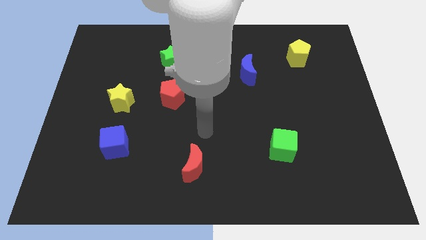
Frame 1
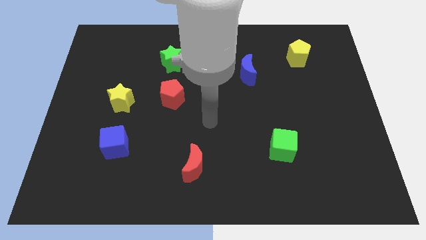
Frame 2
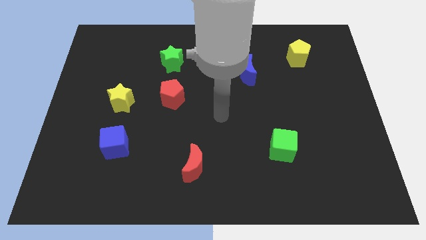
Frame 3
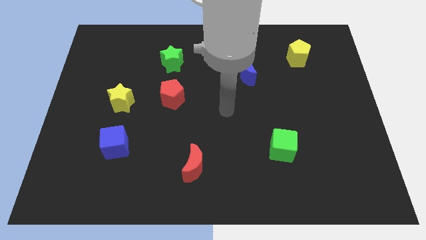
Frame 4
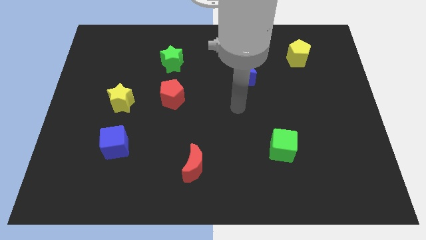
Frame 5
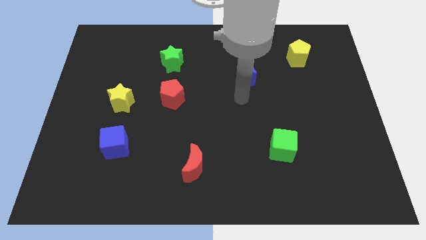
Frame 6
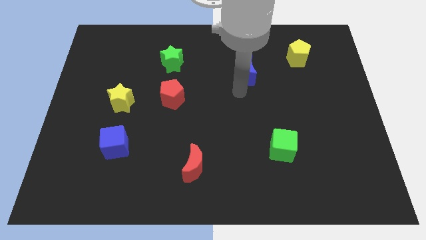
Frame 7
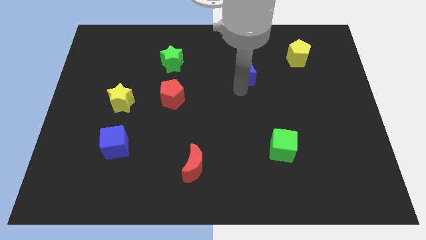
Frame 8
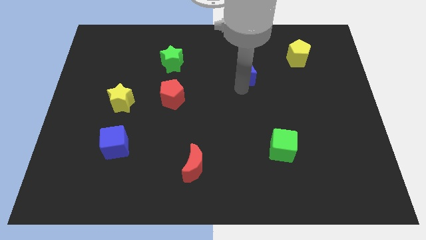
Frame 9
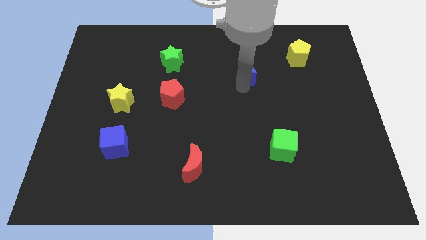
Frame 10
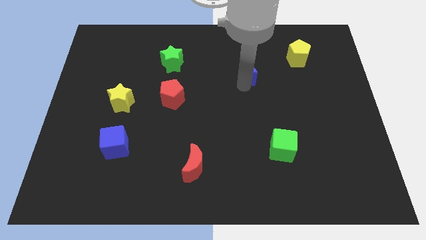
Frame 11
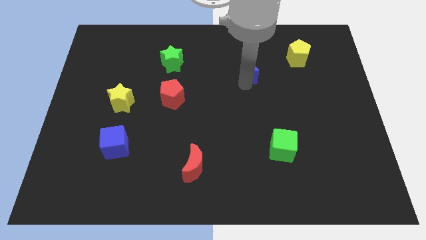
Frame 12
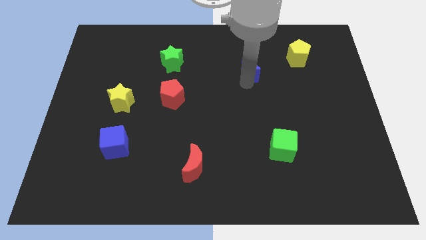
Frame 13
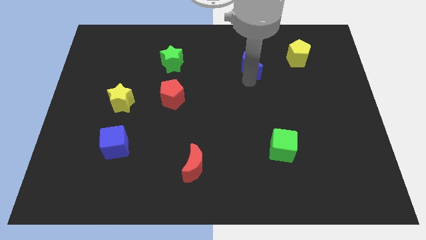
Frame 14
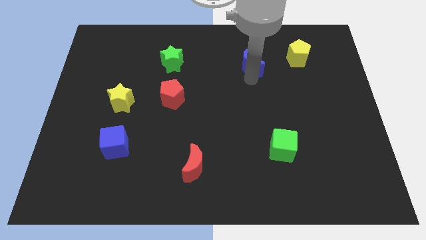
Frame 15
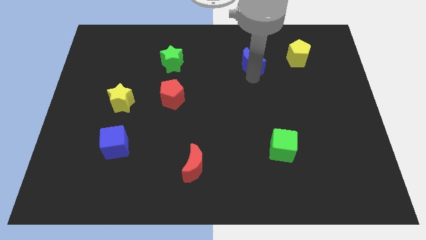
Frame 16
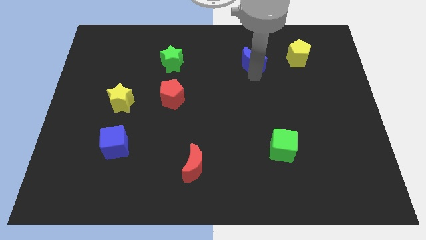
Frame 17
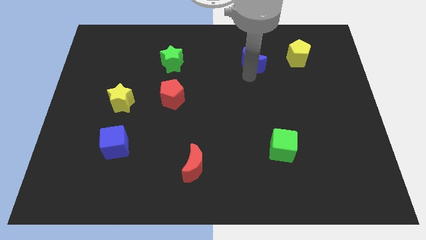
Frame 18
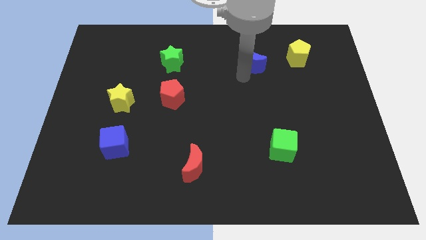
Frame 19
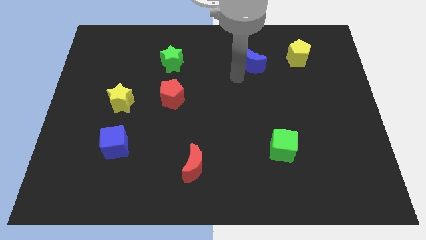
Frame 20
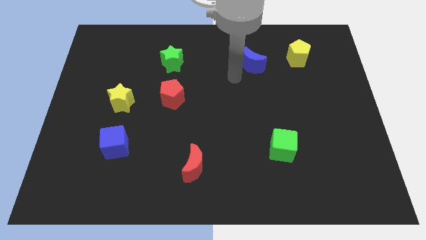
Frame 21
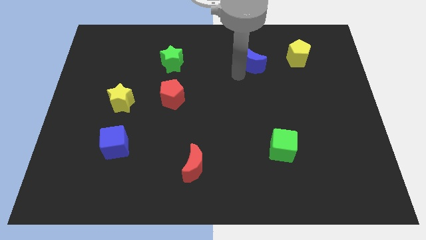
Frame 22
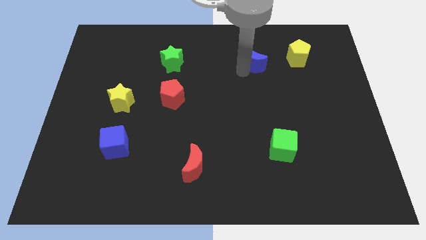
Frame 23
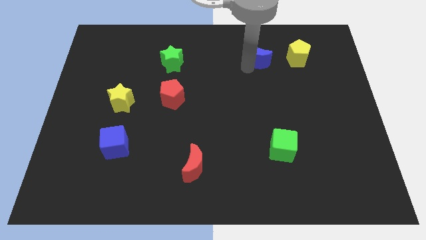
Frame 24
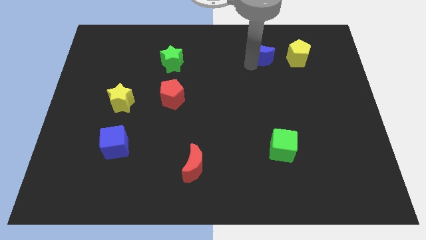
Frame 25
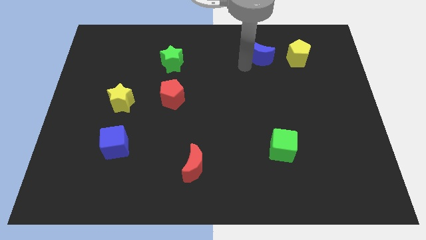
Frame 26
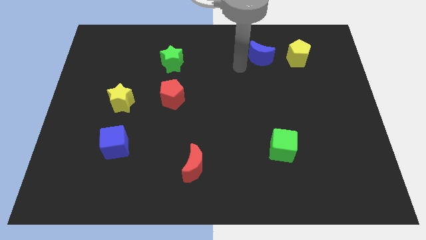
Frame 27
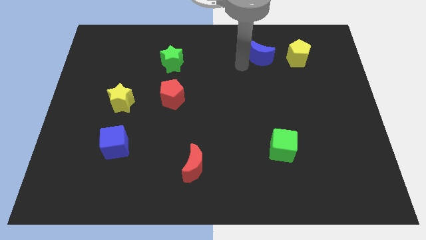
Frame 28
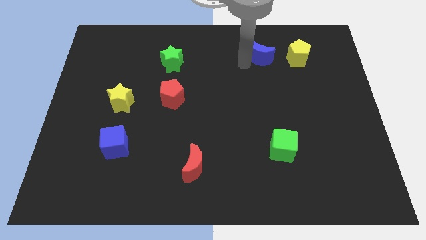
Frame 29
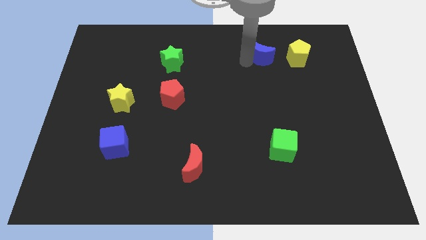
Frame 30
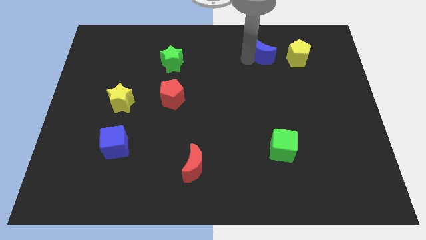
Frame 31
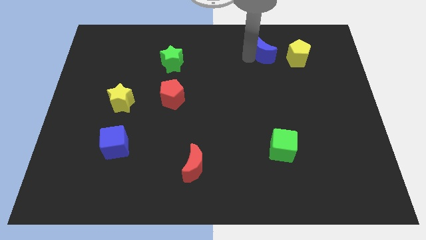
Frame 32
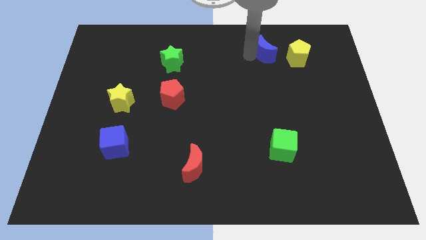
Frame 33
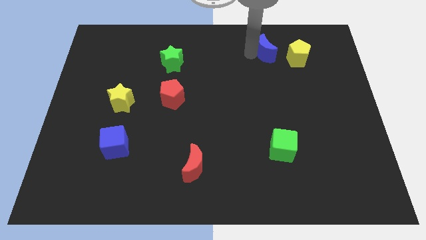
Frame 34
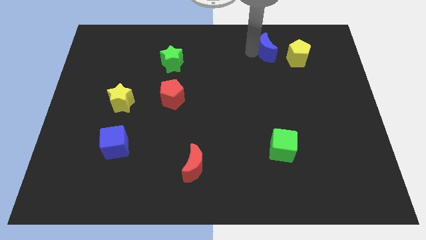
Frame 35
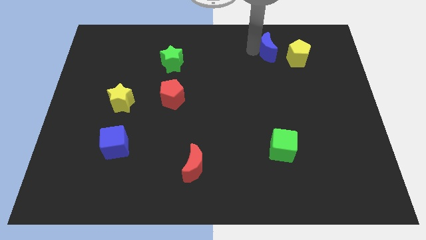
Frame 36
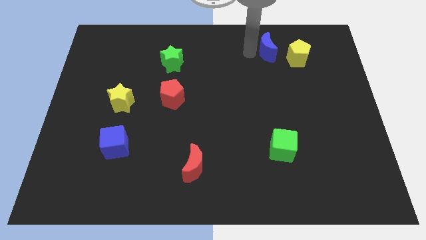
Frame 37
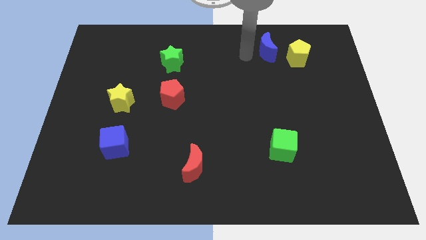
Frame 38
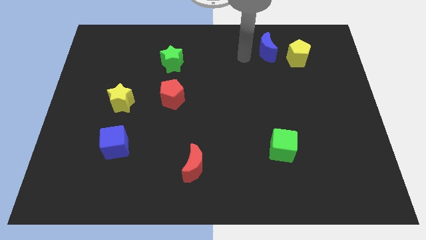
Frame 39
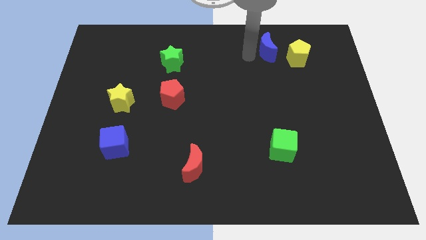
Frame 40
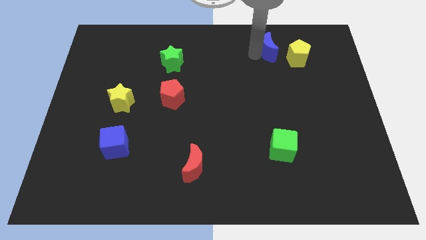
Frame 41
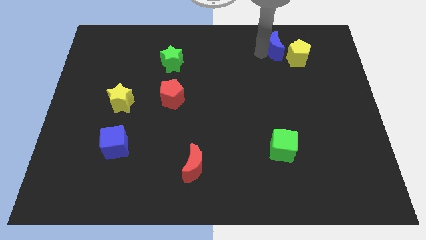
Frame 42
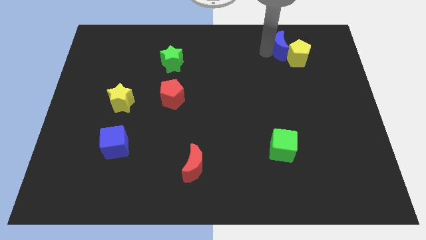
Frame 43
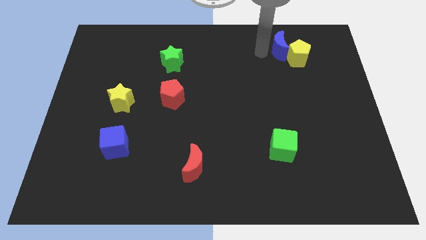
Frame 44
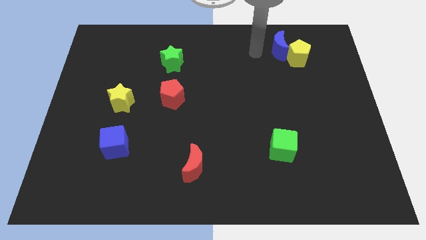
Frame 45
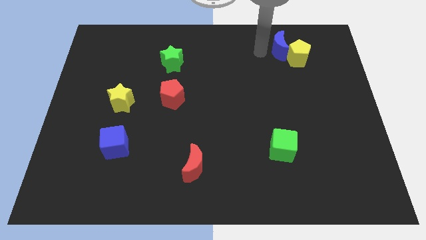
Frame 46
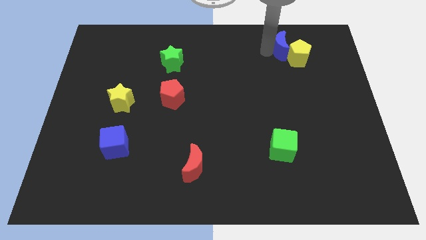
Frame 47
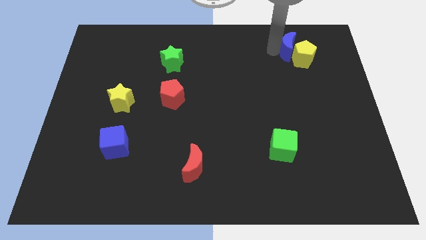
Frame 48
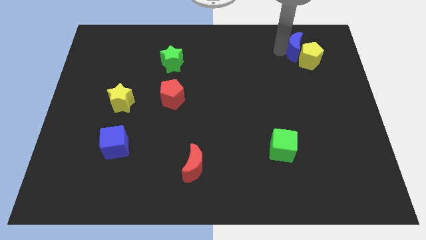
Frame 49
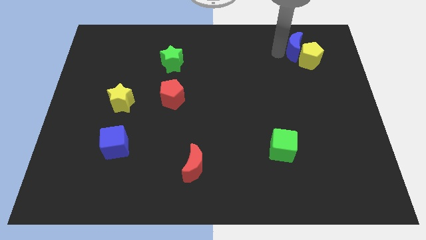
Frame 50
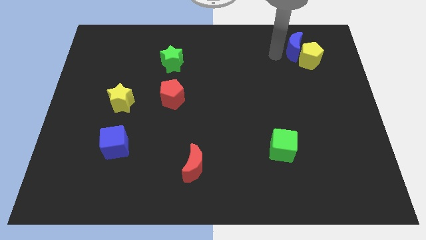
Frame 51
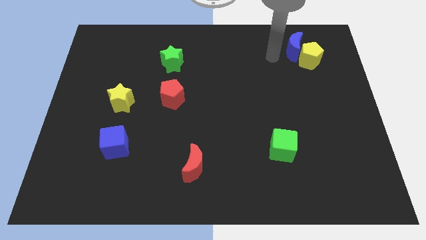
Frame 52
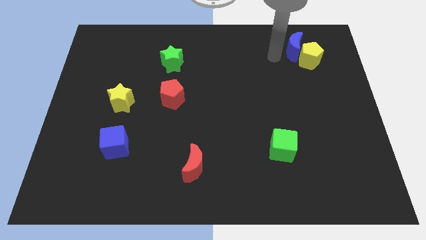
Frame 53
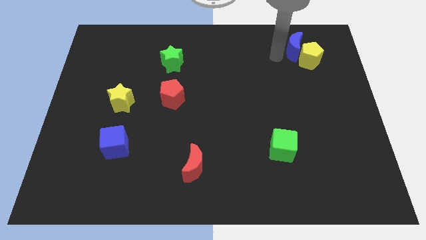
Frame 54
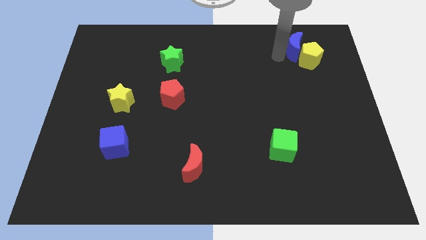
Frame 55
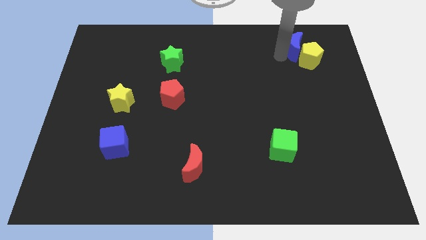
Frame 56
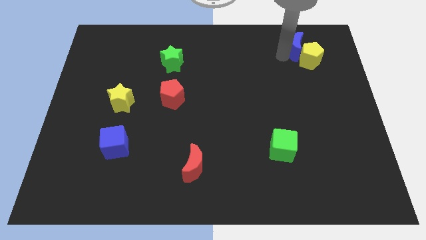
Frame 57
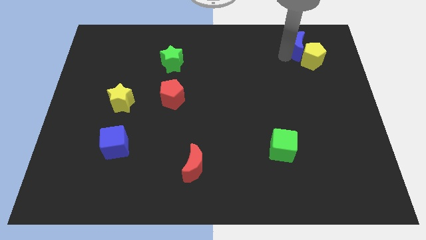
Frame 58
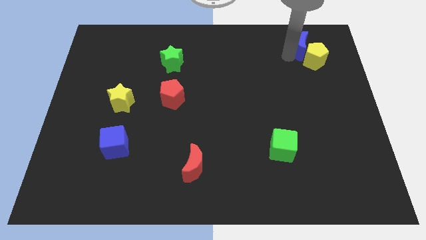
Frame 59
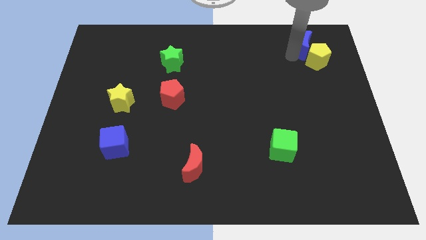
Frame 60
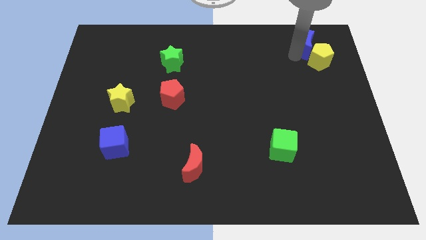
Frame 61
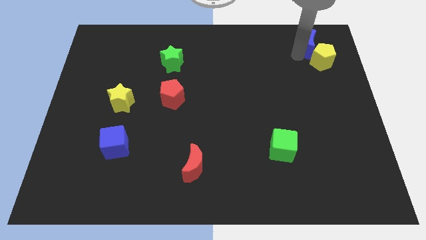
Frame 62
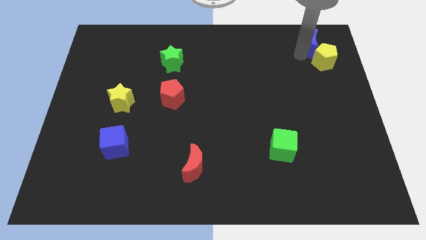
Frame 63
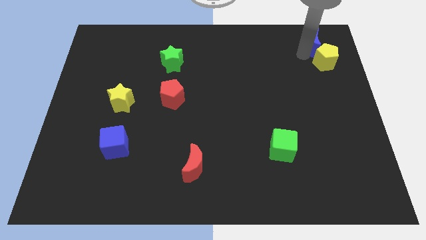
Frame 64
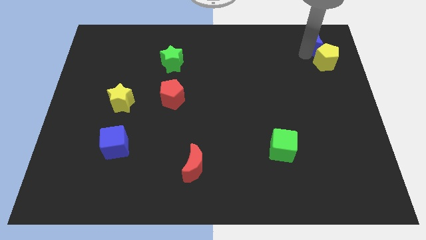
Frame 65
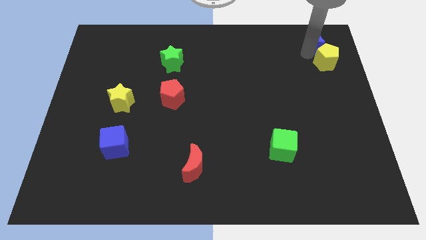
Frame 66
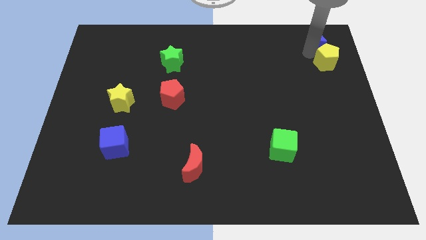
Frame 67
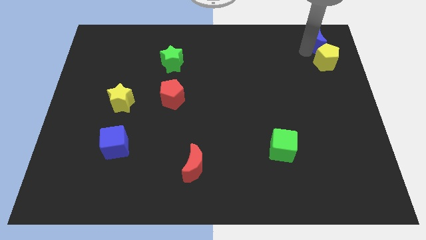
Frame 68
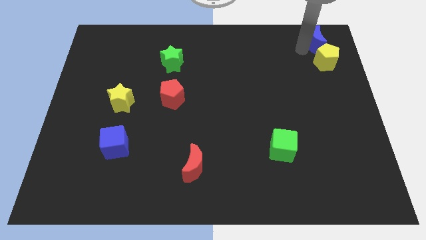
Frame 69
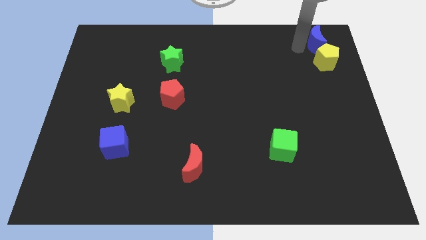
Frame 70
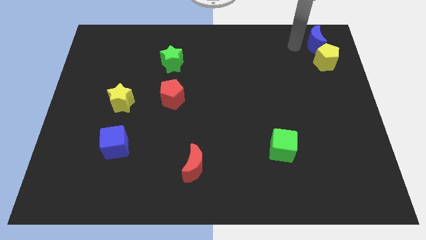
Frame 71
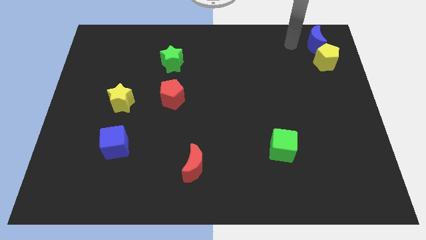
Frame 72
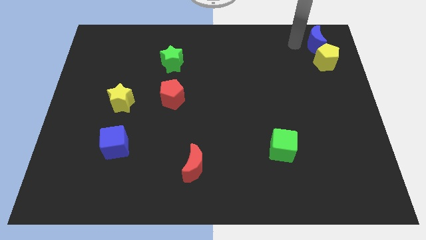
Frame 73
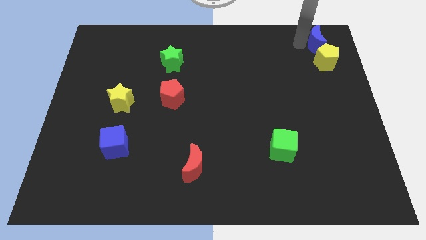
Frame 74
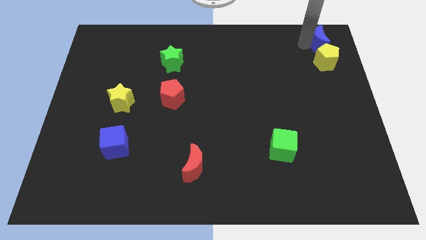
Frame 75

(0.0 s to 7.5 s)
slide the blue moon to the top right of the board
